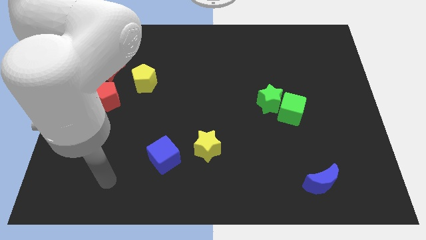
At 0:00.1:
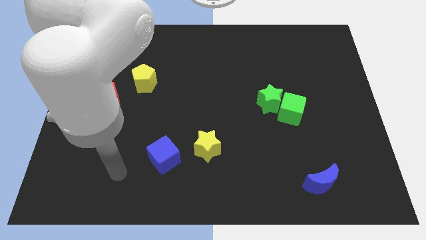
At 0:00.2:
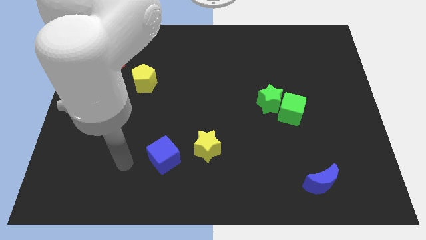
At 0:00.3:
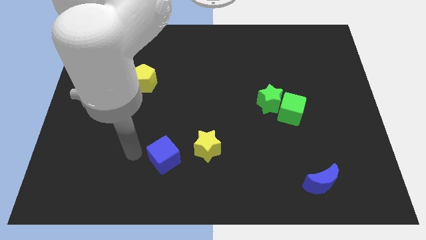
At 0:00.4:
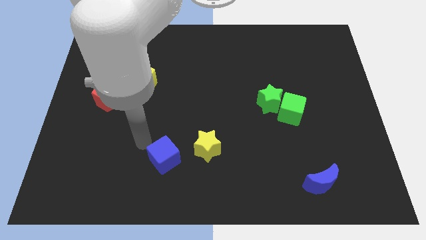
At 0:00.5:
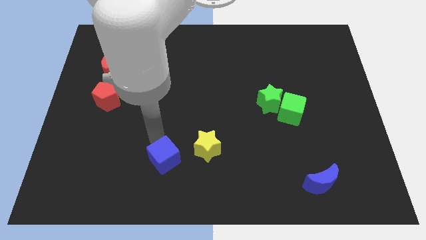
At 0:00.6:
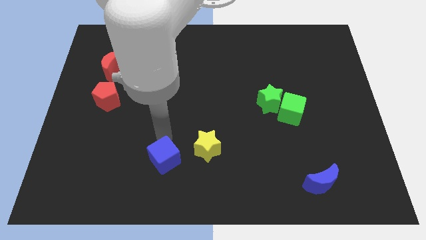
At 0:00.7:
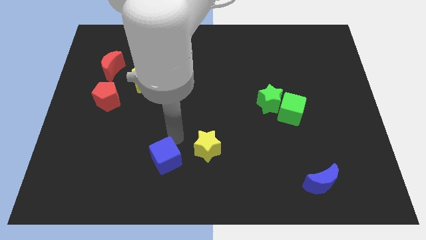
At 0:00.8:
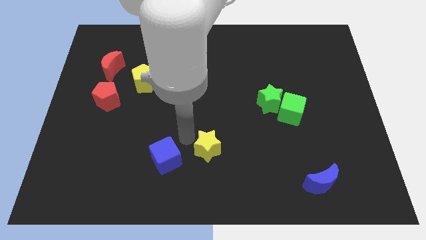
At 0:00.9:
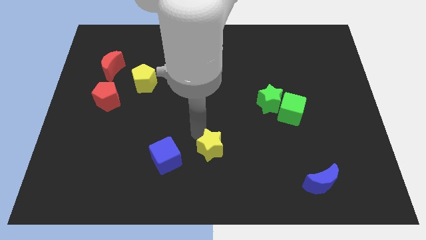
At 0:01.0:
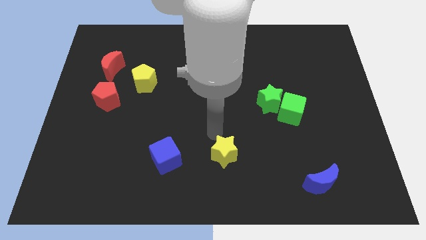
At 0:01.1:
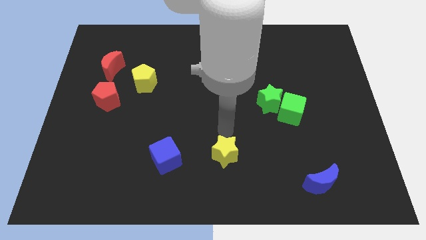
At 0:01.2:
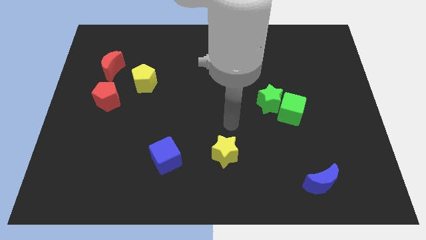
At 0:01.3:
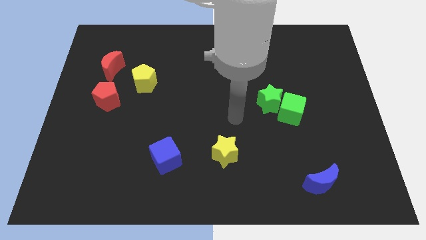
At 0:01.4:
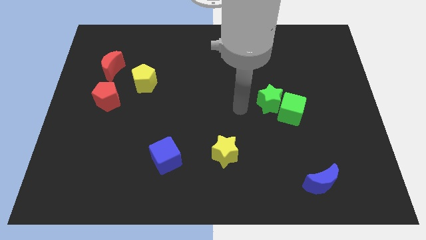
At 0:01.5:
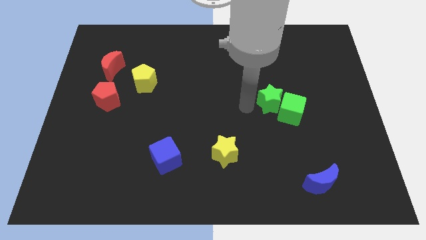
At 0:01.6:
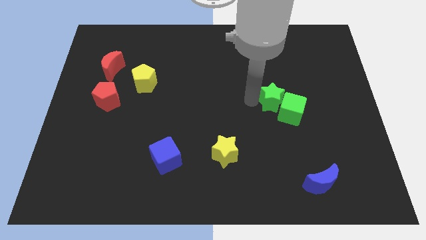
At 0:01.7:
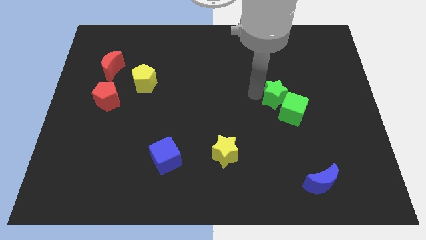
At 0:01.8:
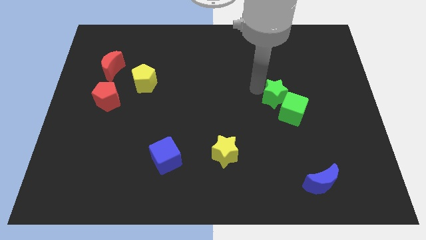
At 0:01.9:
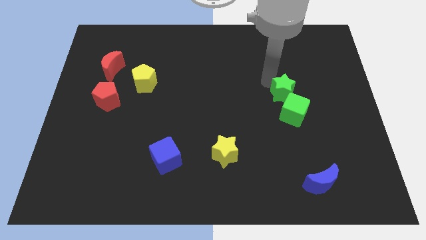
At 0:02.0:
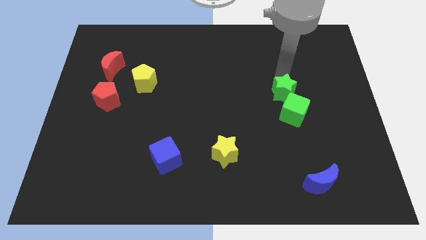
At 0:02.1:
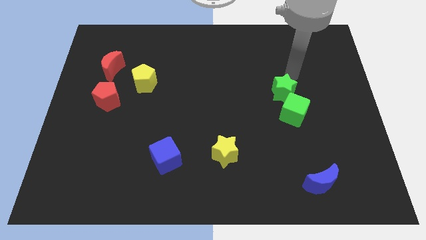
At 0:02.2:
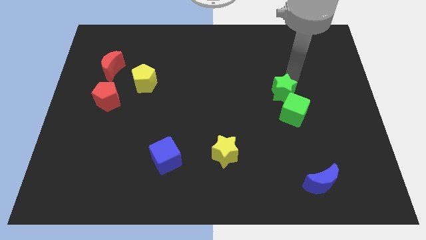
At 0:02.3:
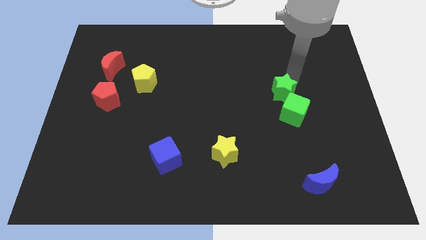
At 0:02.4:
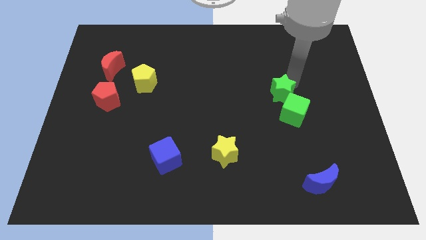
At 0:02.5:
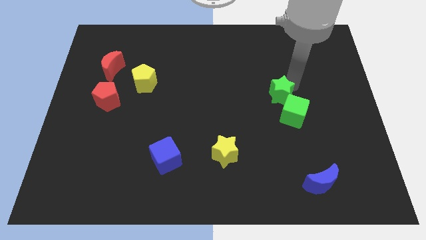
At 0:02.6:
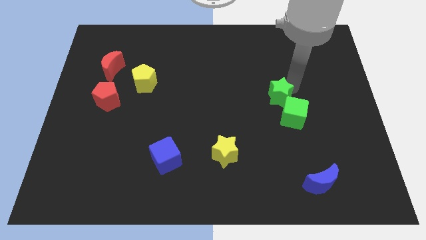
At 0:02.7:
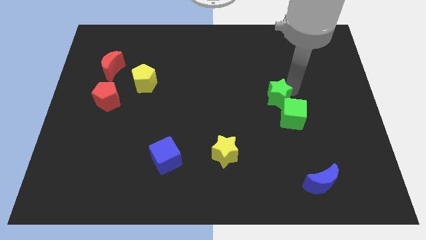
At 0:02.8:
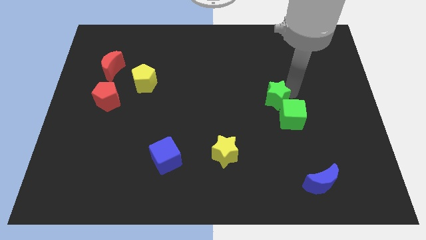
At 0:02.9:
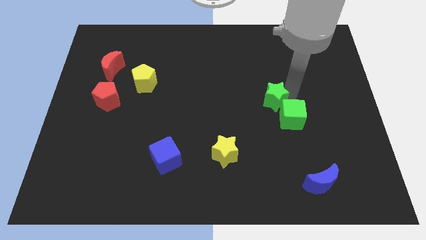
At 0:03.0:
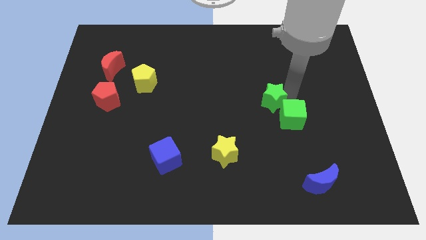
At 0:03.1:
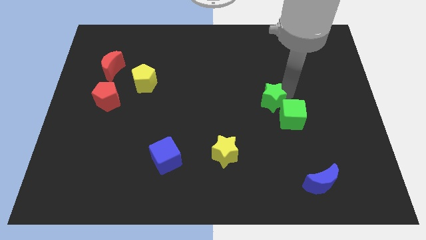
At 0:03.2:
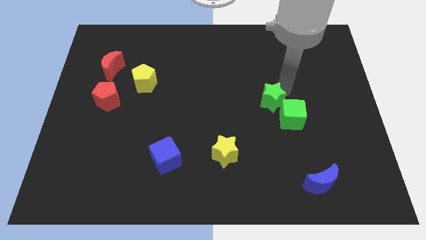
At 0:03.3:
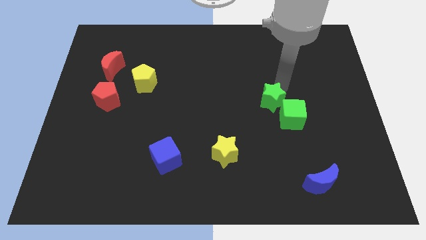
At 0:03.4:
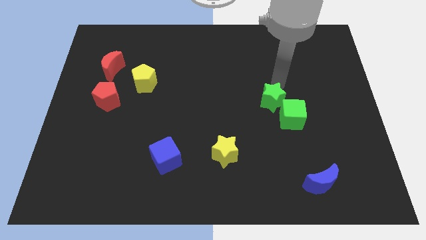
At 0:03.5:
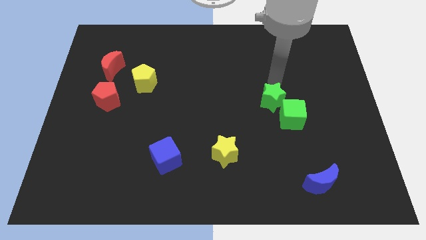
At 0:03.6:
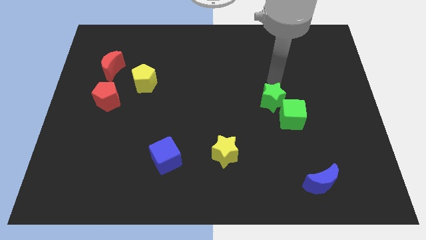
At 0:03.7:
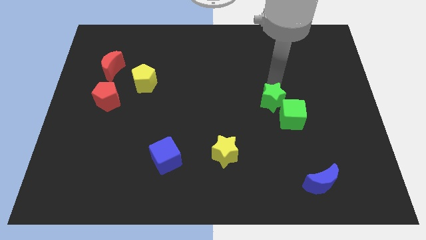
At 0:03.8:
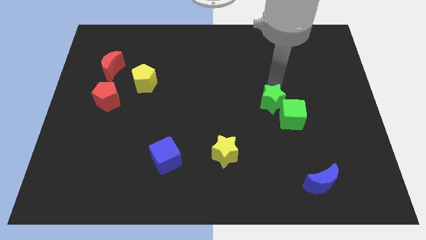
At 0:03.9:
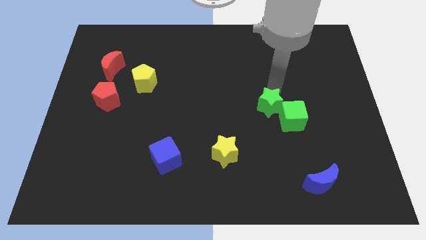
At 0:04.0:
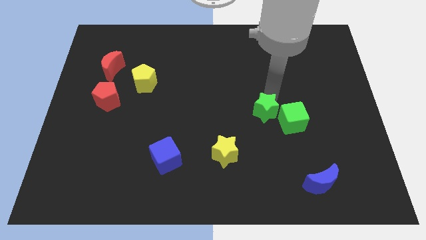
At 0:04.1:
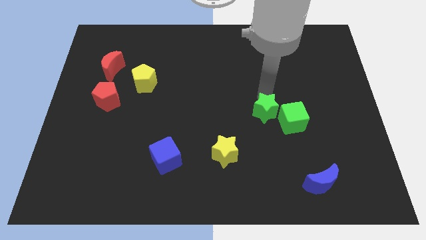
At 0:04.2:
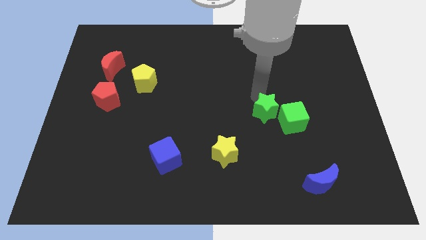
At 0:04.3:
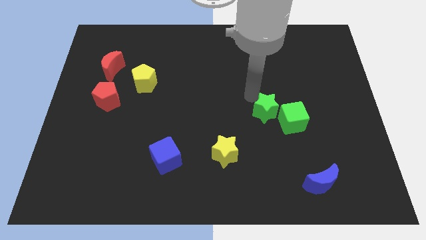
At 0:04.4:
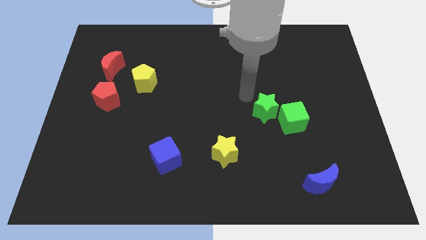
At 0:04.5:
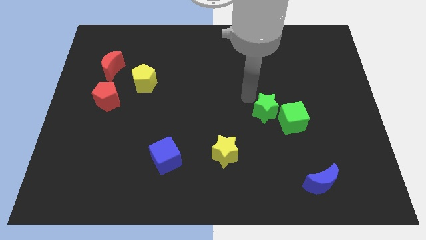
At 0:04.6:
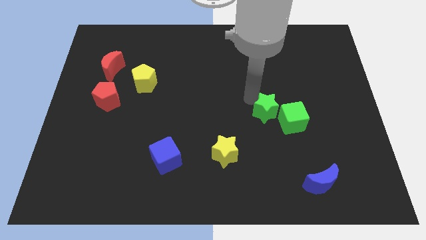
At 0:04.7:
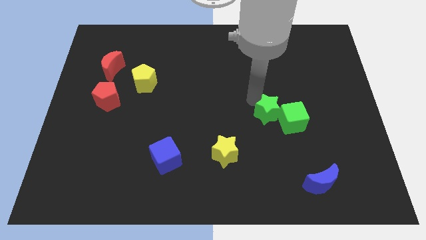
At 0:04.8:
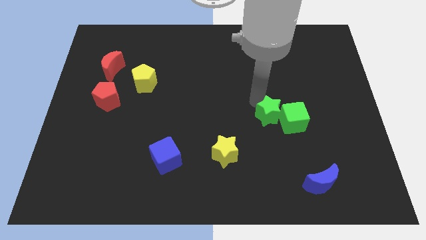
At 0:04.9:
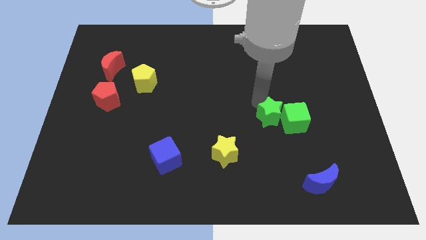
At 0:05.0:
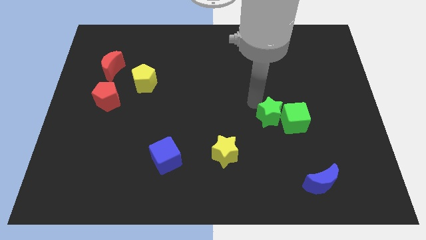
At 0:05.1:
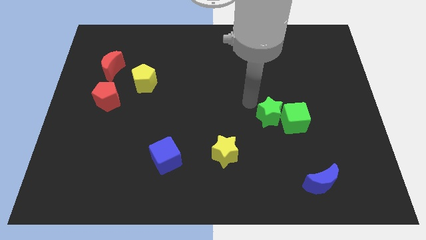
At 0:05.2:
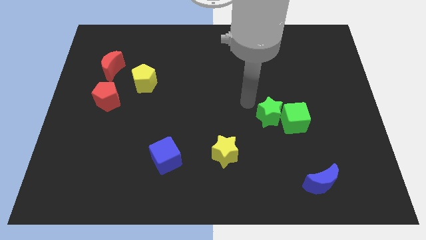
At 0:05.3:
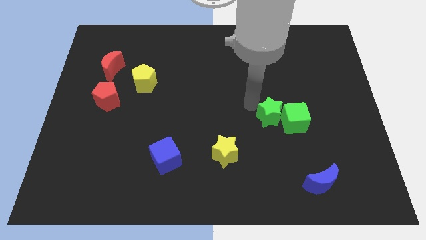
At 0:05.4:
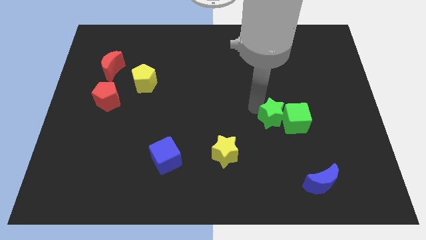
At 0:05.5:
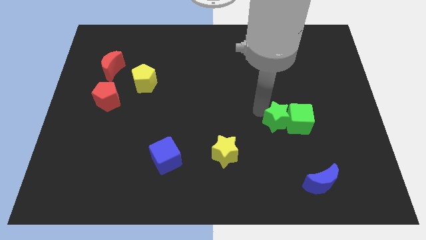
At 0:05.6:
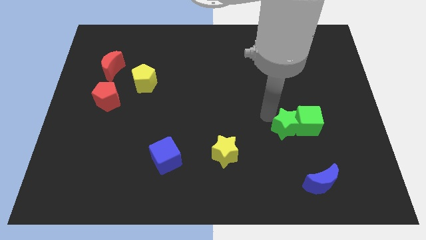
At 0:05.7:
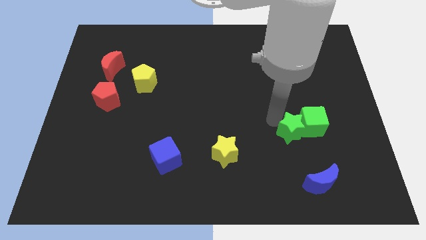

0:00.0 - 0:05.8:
push the green star to the top of the blue moon
